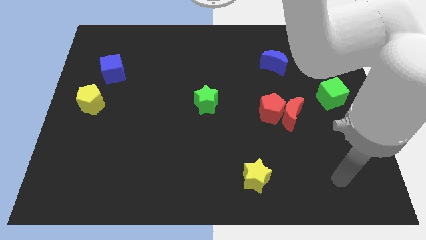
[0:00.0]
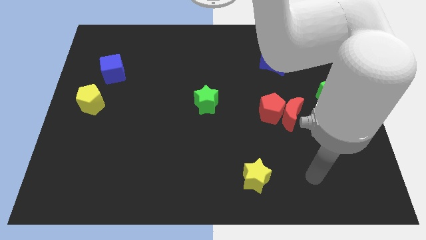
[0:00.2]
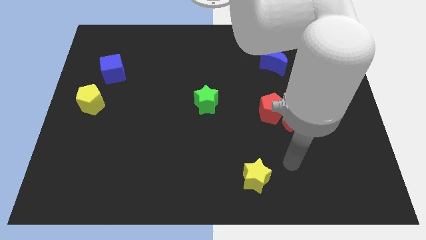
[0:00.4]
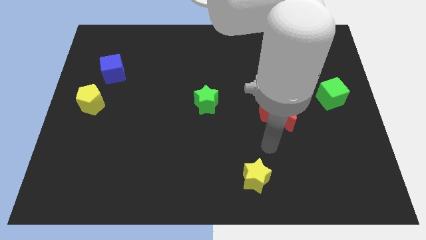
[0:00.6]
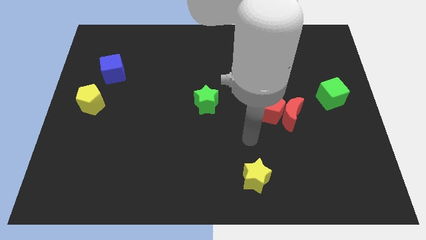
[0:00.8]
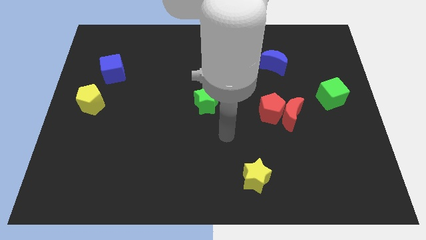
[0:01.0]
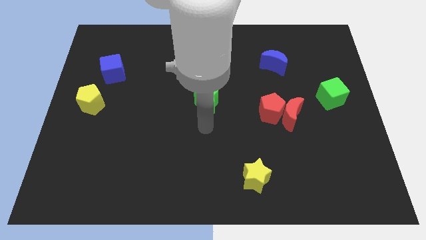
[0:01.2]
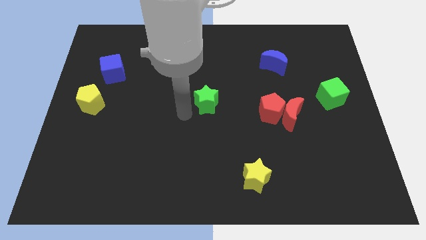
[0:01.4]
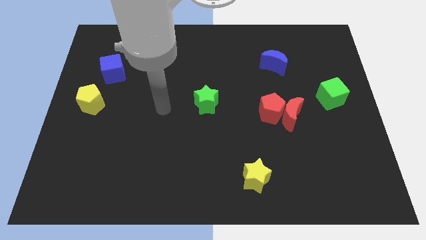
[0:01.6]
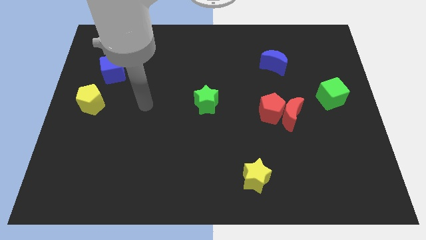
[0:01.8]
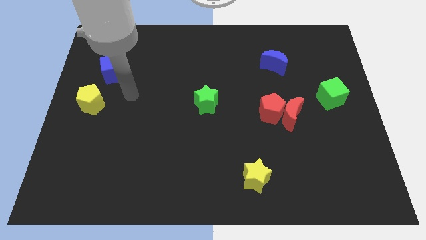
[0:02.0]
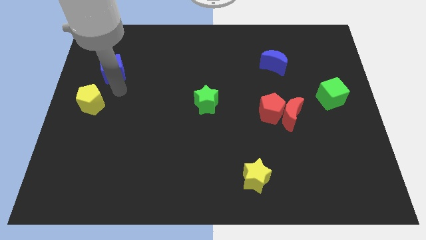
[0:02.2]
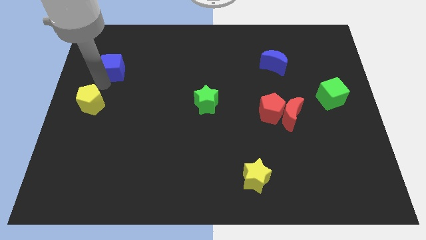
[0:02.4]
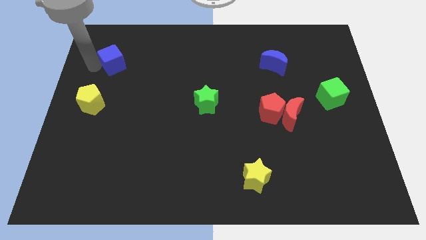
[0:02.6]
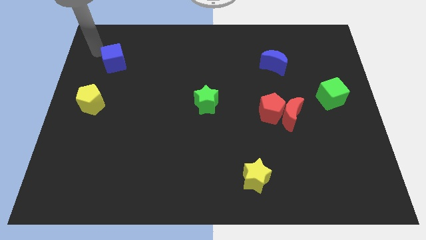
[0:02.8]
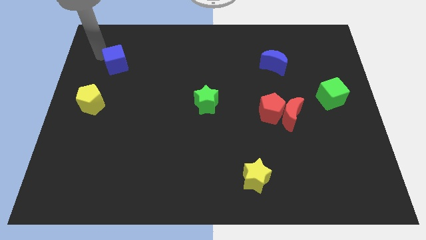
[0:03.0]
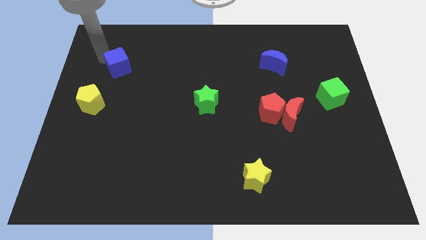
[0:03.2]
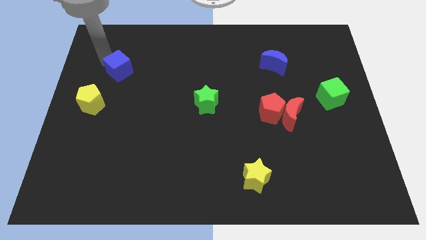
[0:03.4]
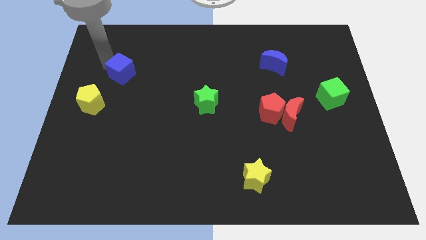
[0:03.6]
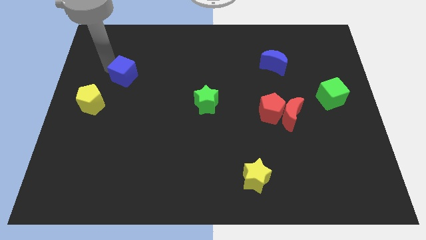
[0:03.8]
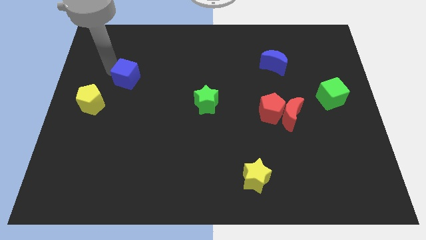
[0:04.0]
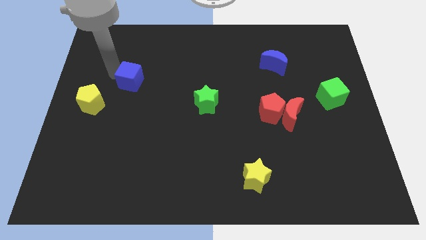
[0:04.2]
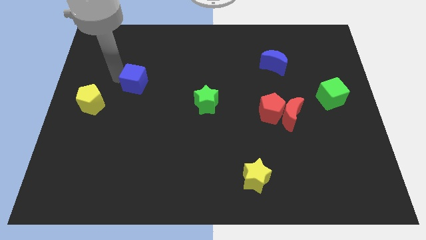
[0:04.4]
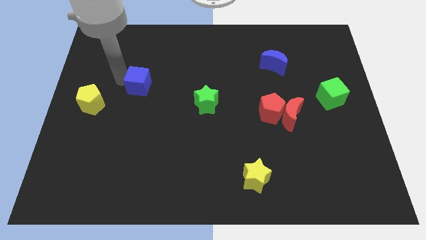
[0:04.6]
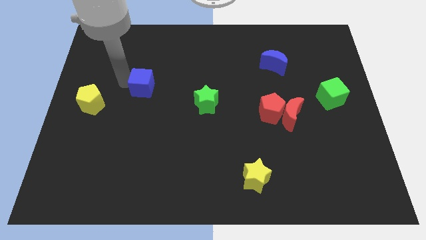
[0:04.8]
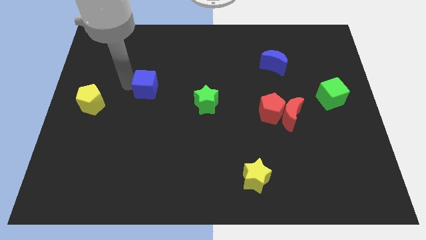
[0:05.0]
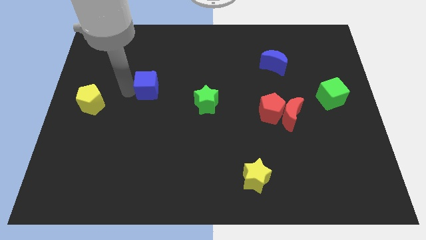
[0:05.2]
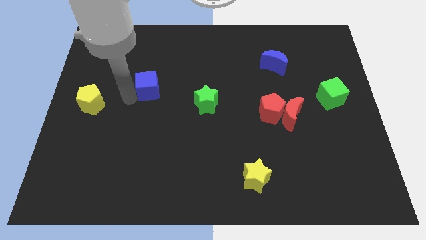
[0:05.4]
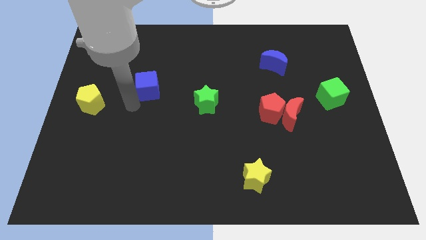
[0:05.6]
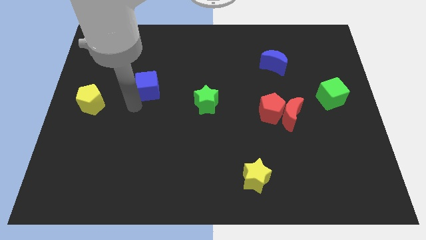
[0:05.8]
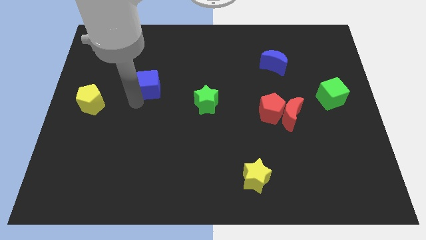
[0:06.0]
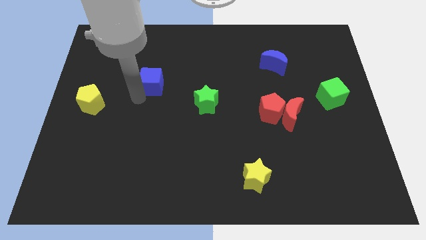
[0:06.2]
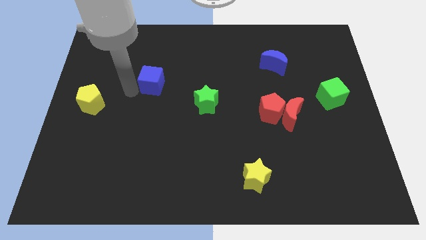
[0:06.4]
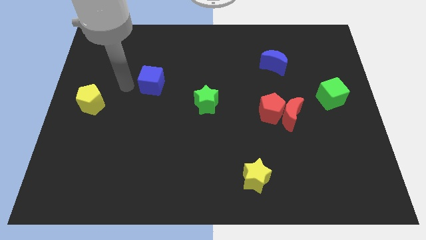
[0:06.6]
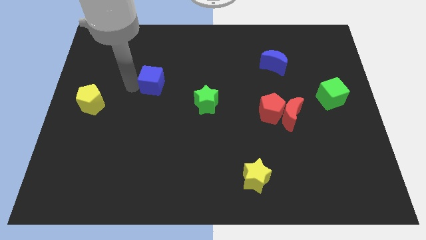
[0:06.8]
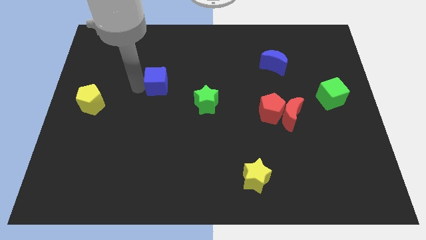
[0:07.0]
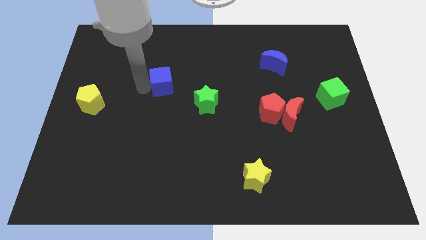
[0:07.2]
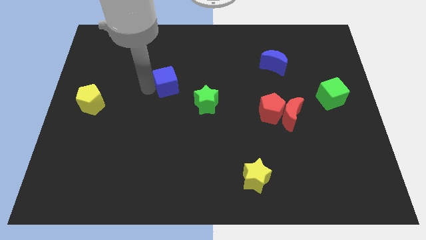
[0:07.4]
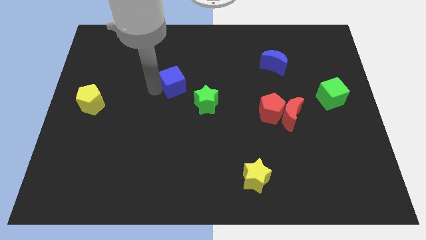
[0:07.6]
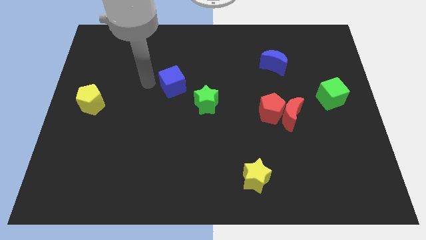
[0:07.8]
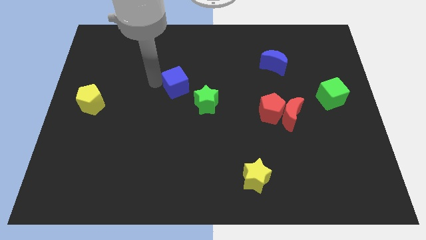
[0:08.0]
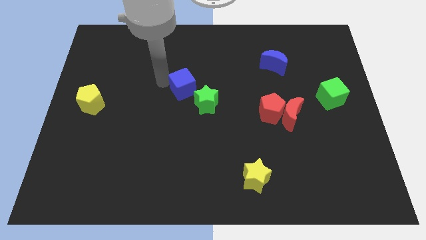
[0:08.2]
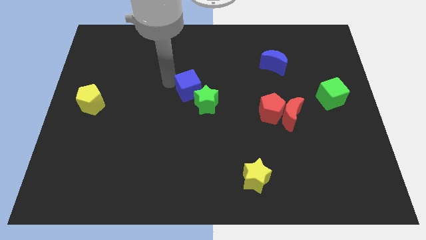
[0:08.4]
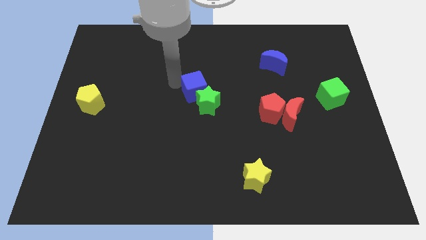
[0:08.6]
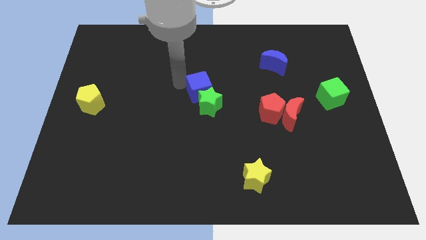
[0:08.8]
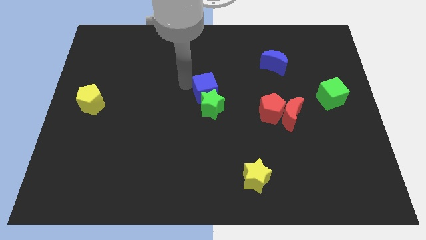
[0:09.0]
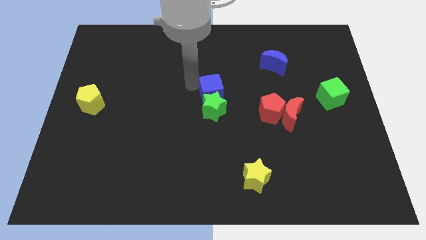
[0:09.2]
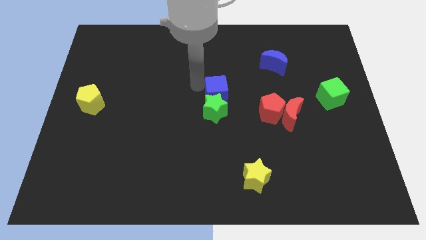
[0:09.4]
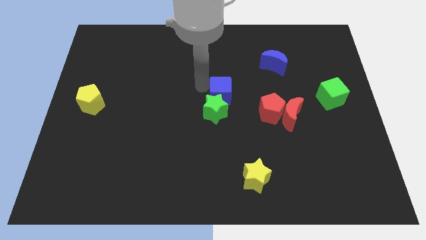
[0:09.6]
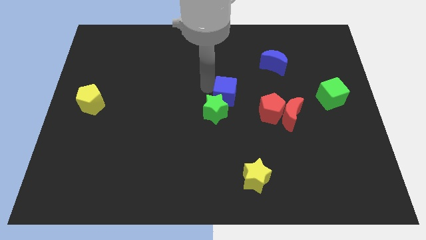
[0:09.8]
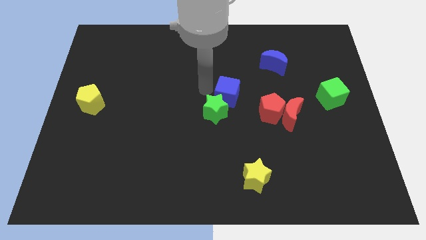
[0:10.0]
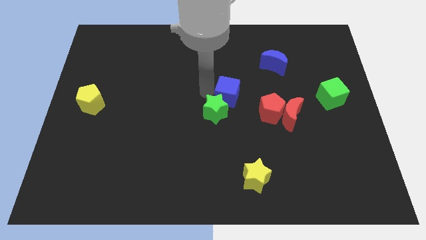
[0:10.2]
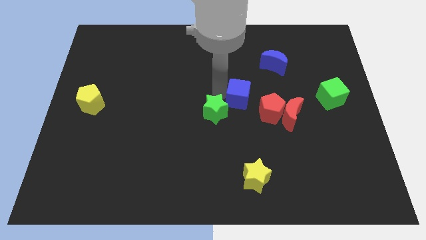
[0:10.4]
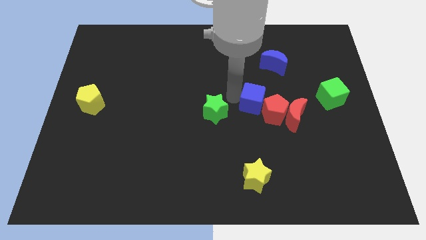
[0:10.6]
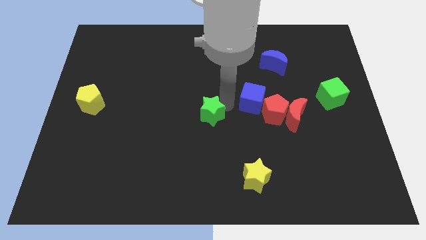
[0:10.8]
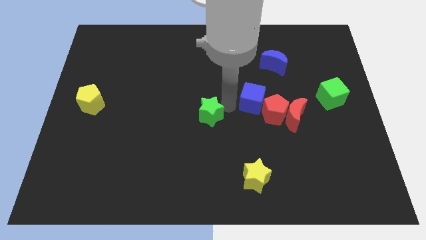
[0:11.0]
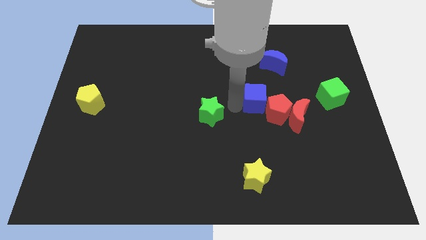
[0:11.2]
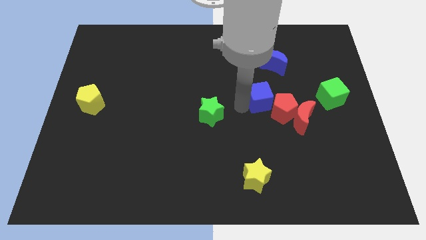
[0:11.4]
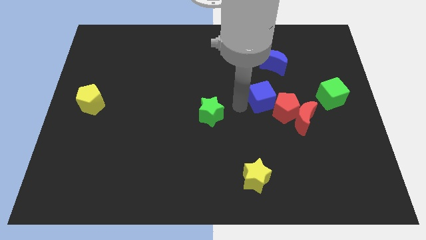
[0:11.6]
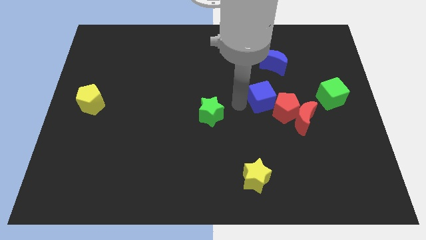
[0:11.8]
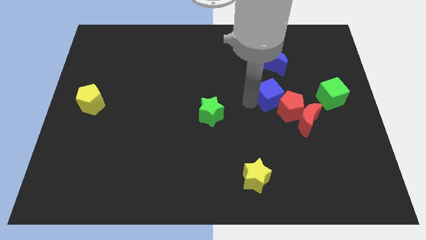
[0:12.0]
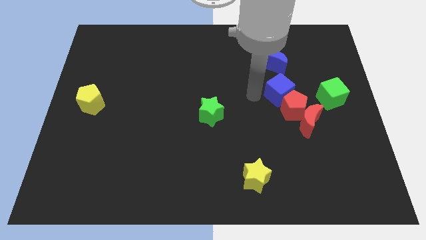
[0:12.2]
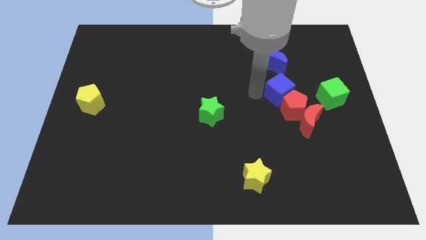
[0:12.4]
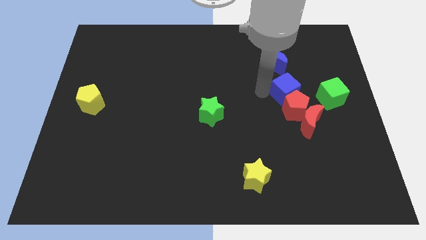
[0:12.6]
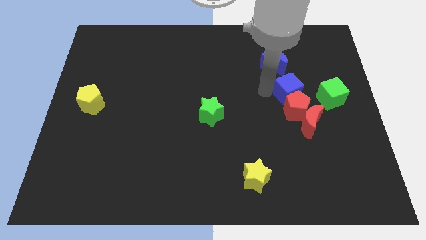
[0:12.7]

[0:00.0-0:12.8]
put the blue cube to the top right side of the red pentagon
